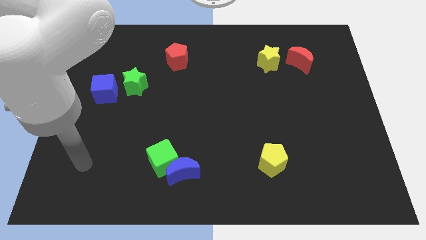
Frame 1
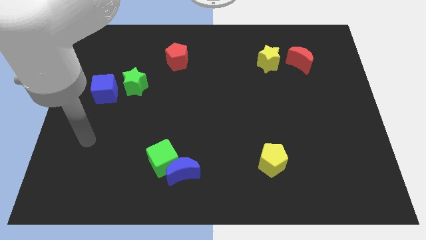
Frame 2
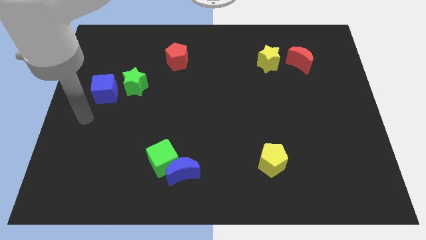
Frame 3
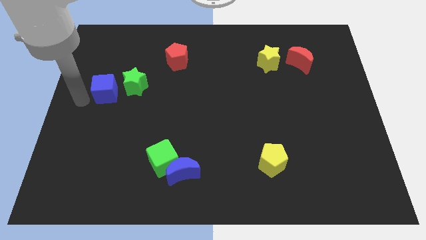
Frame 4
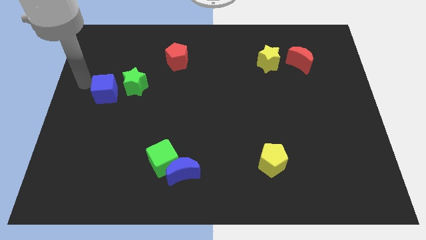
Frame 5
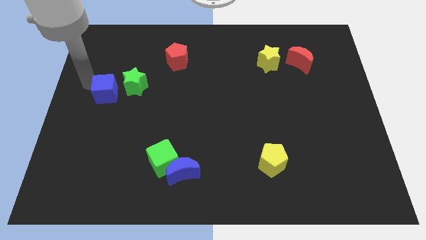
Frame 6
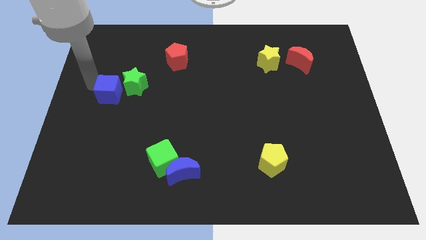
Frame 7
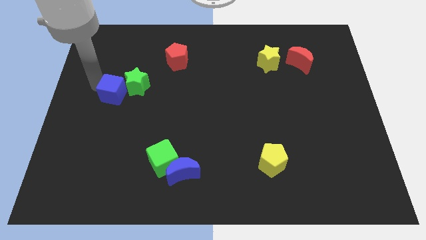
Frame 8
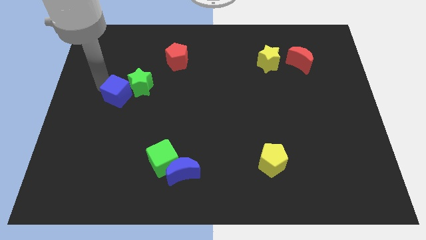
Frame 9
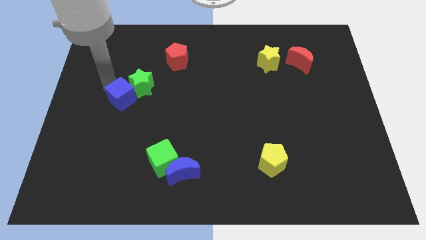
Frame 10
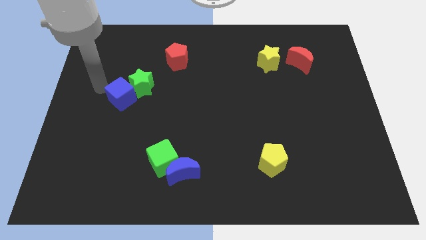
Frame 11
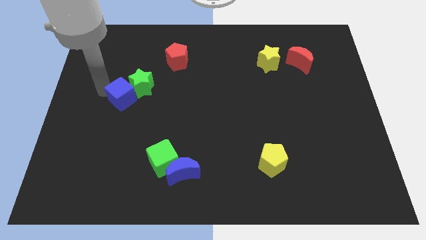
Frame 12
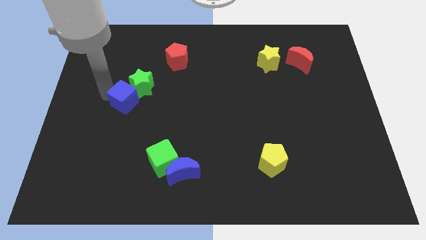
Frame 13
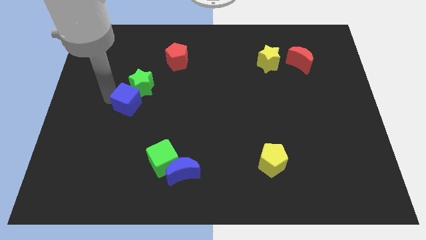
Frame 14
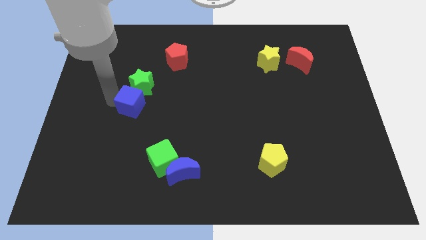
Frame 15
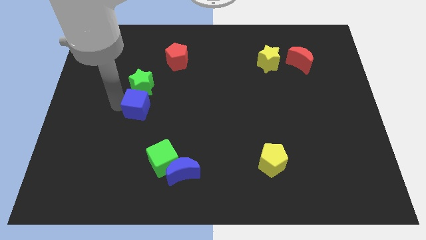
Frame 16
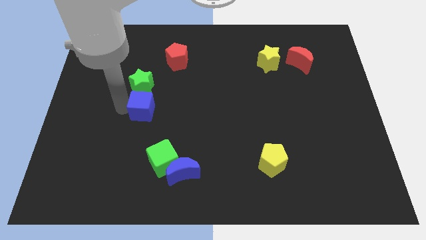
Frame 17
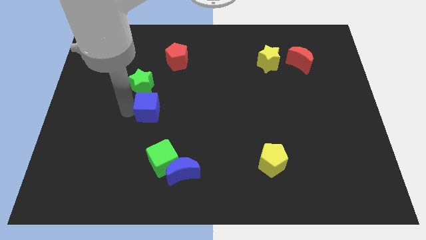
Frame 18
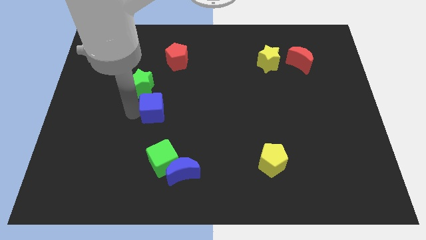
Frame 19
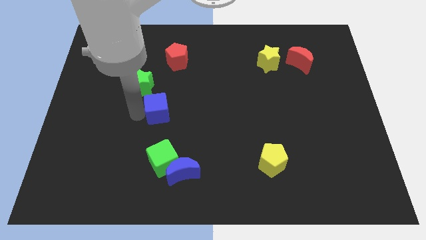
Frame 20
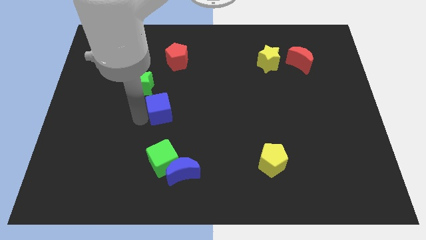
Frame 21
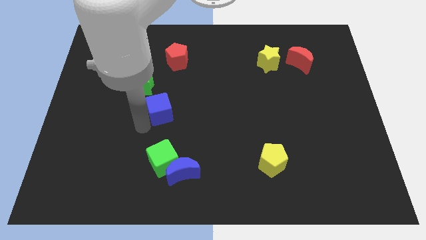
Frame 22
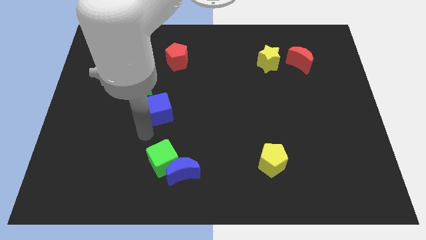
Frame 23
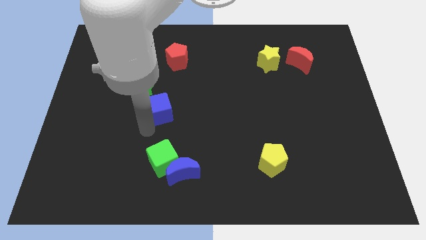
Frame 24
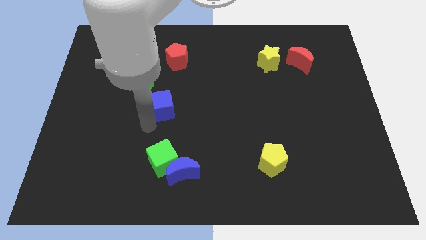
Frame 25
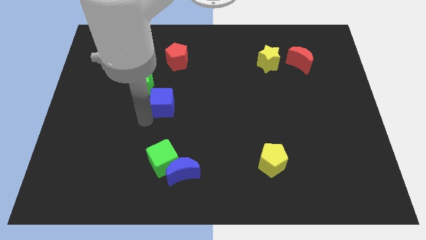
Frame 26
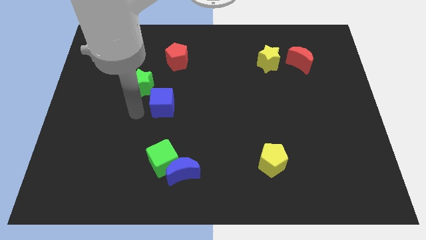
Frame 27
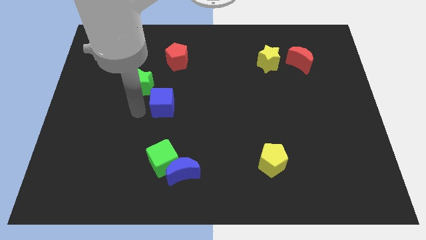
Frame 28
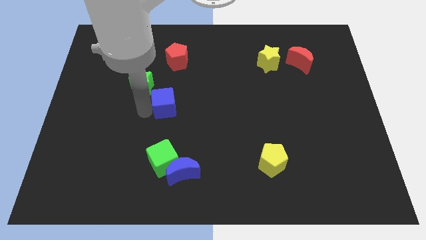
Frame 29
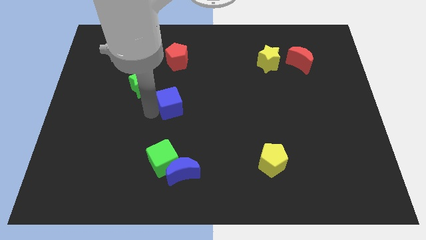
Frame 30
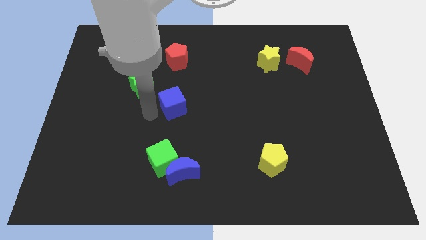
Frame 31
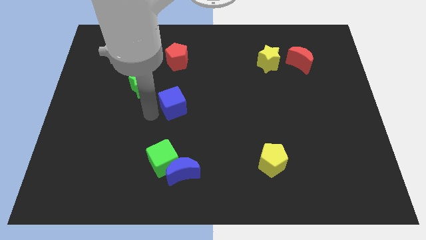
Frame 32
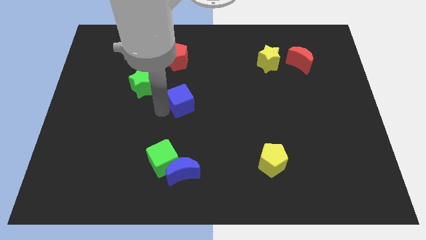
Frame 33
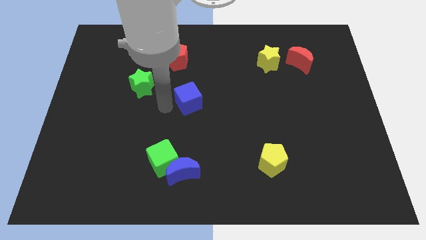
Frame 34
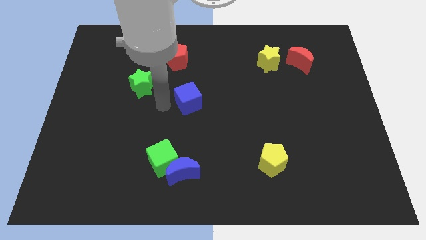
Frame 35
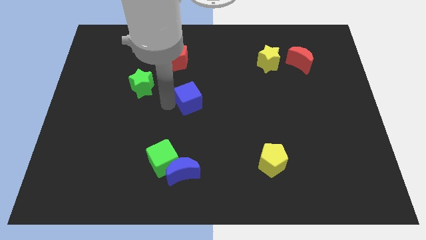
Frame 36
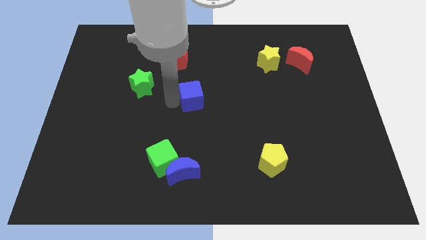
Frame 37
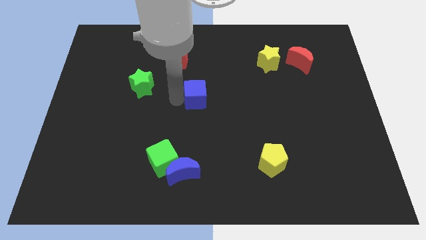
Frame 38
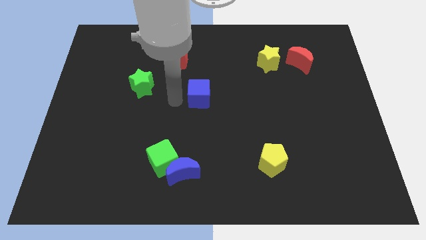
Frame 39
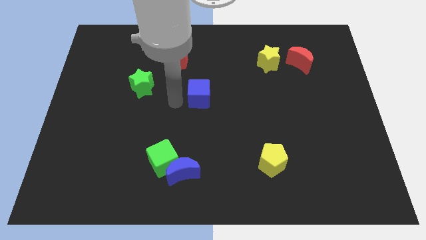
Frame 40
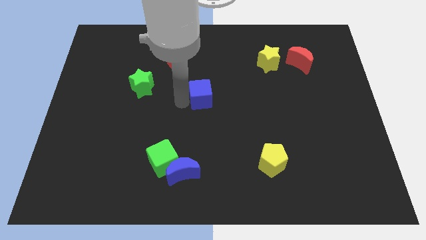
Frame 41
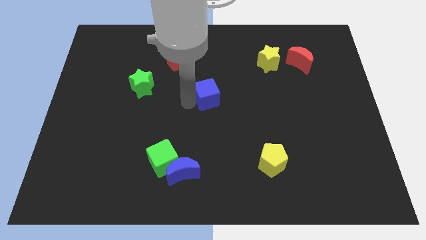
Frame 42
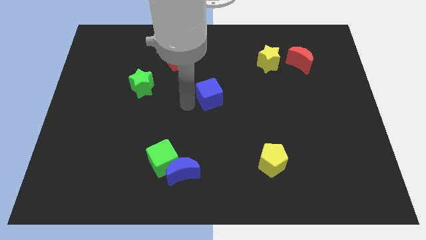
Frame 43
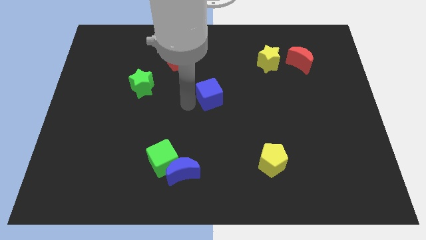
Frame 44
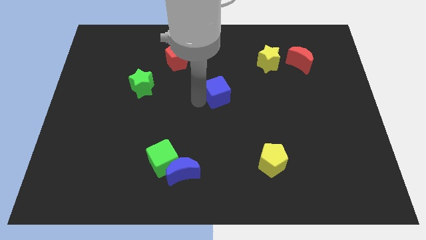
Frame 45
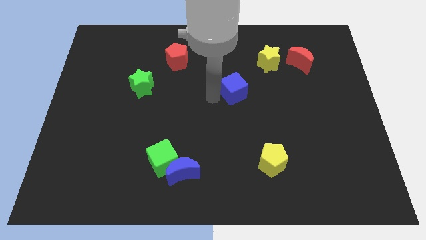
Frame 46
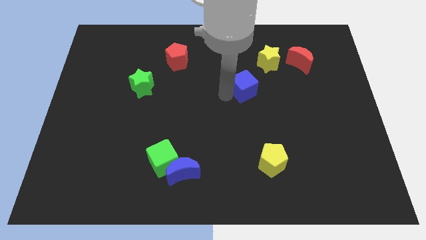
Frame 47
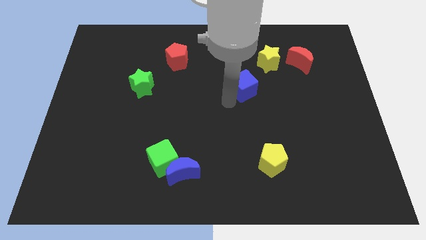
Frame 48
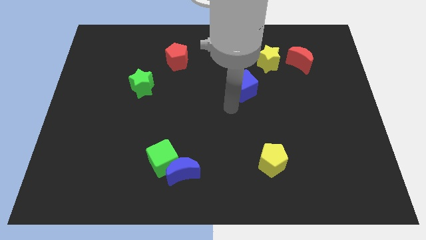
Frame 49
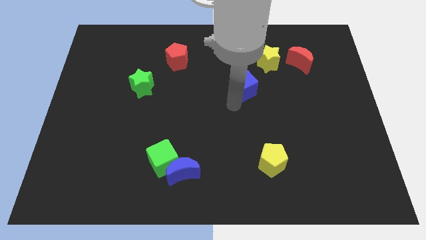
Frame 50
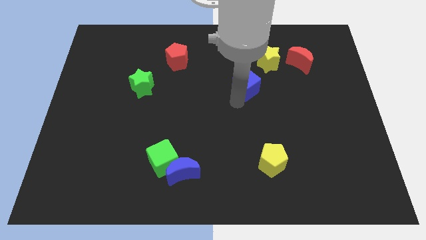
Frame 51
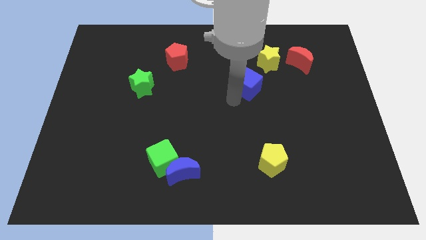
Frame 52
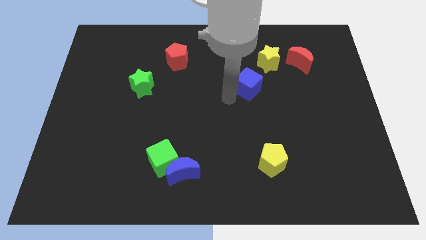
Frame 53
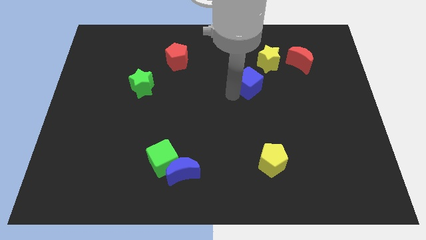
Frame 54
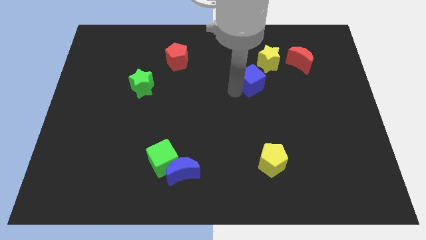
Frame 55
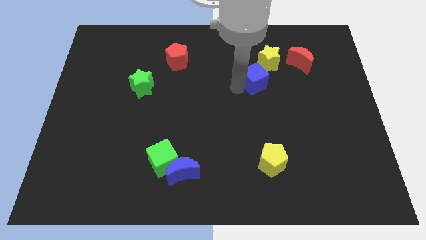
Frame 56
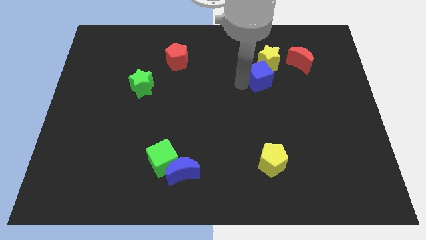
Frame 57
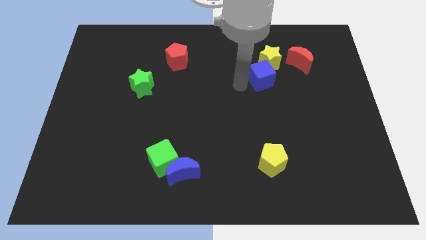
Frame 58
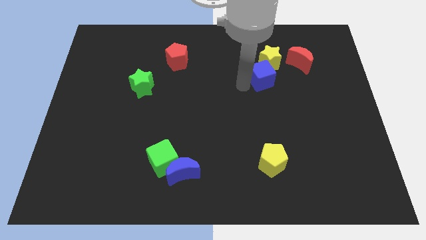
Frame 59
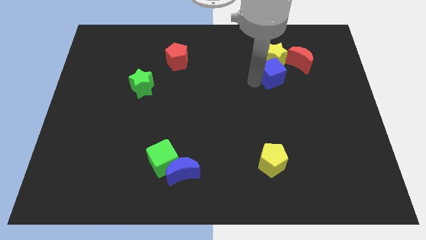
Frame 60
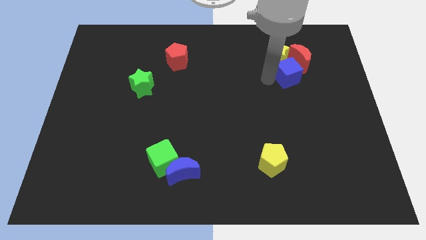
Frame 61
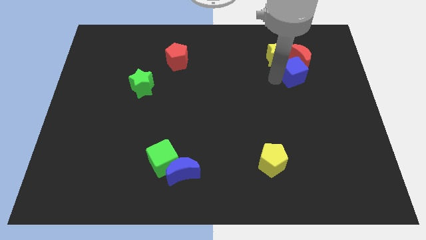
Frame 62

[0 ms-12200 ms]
push the blue cube next to the red moon

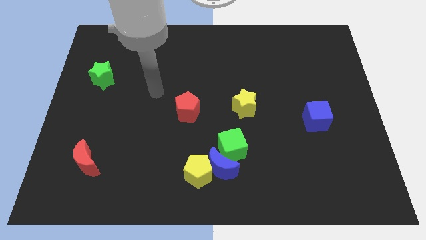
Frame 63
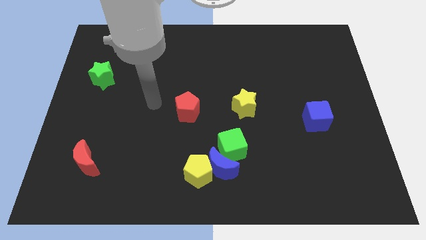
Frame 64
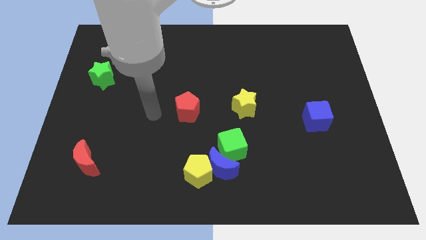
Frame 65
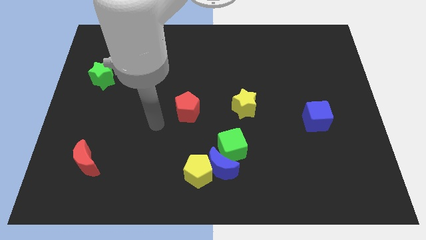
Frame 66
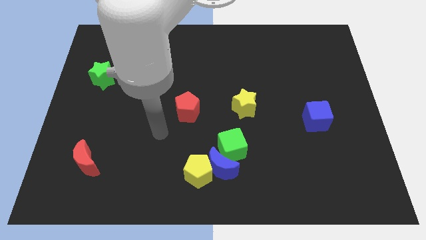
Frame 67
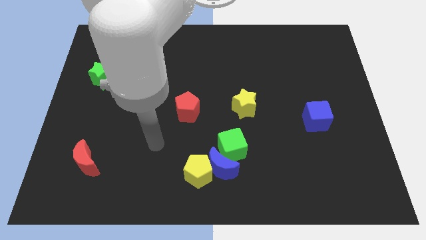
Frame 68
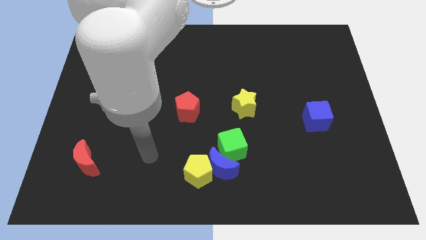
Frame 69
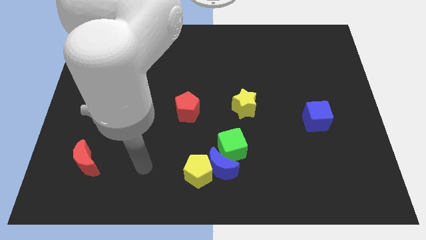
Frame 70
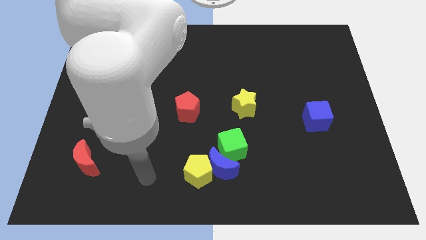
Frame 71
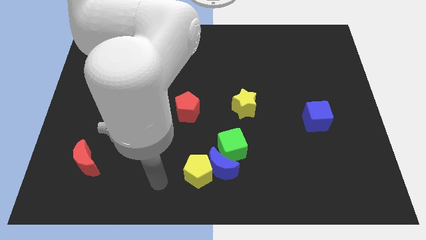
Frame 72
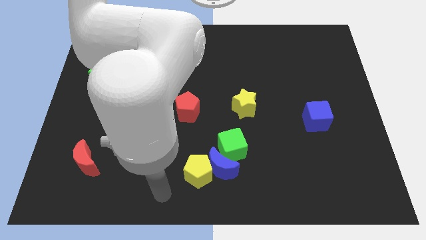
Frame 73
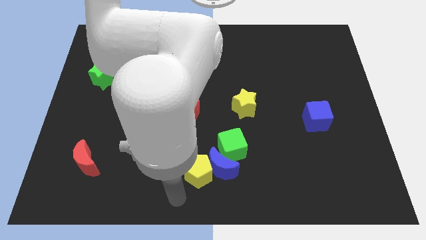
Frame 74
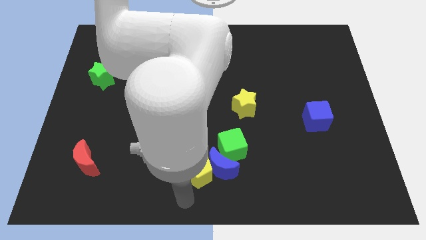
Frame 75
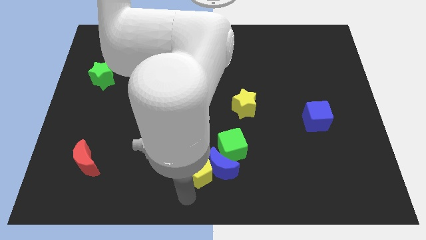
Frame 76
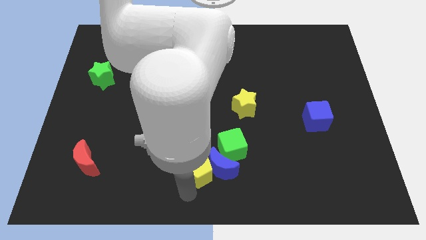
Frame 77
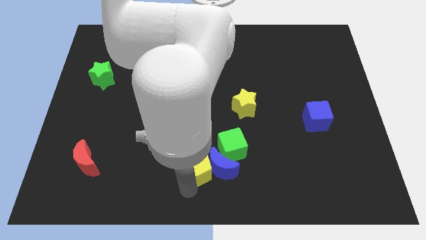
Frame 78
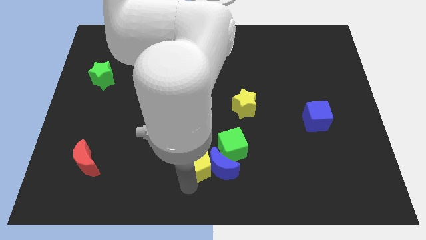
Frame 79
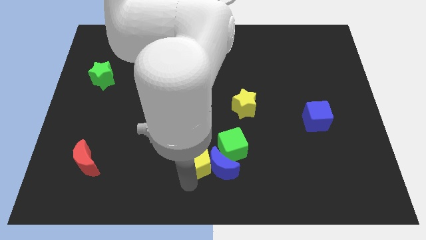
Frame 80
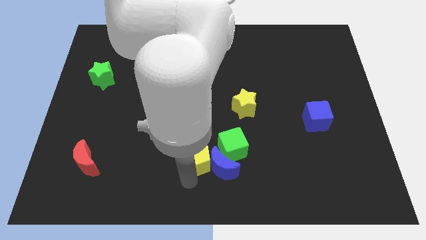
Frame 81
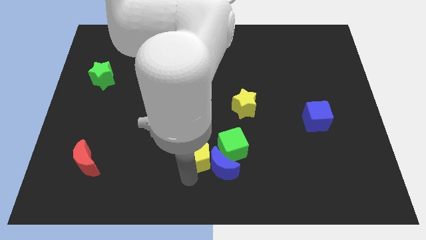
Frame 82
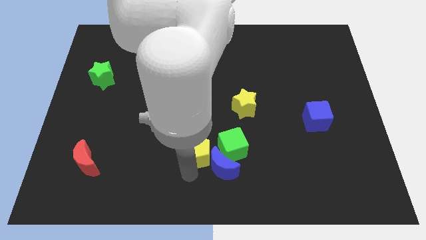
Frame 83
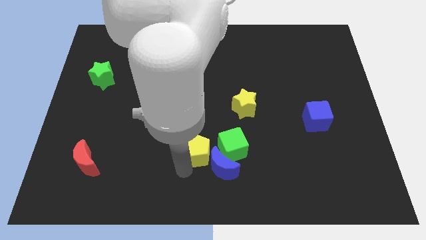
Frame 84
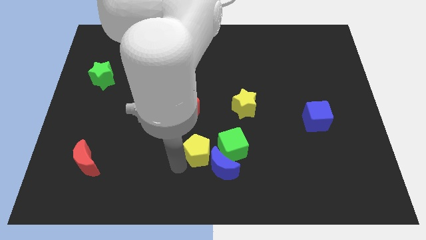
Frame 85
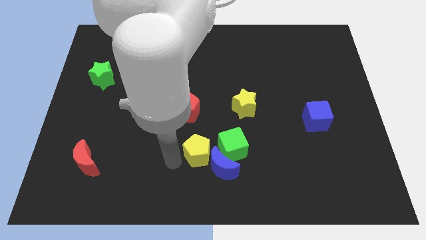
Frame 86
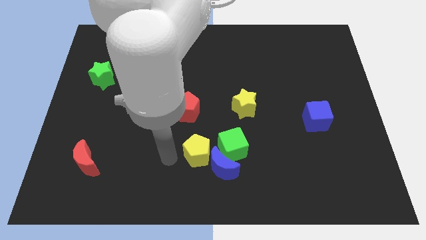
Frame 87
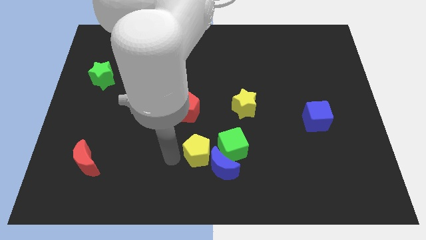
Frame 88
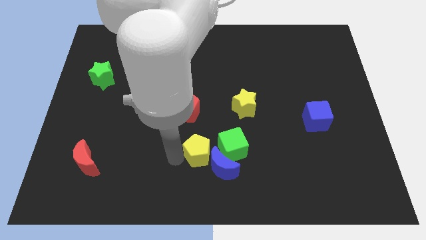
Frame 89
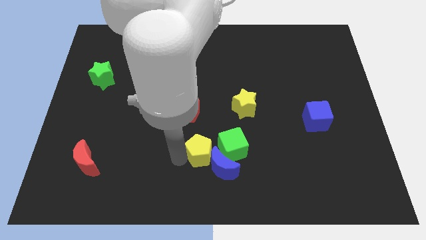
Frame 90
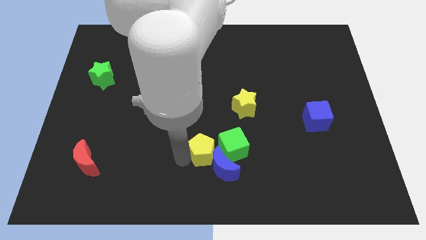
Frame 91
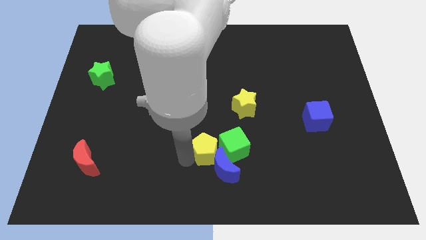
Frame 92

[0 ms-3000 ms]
slide the yellow pentagon close to the green cube
